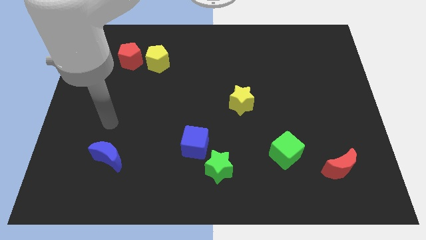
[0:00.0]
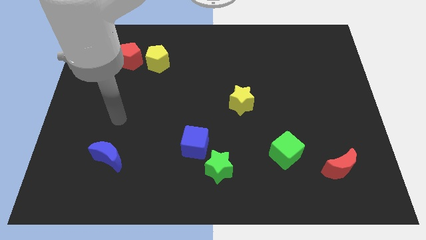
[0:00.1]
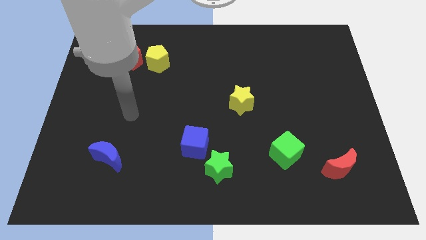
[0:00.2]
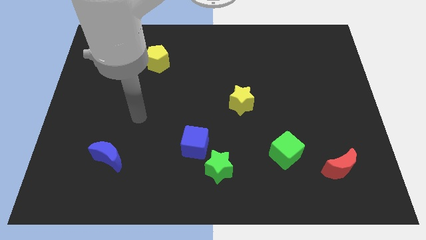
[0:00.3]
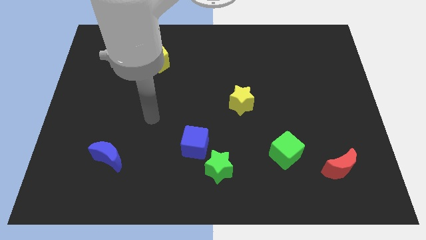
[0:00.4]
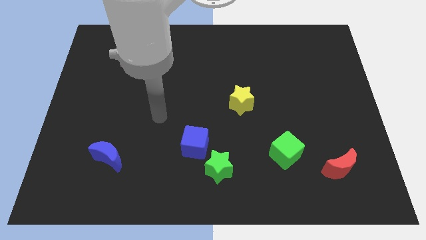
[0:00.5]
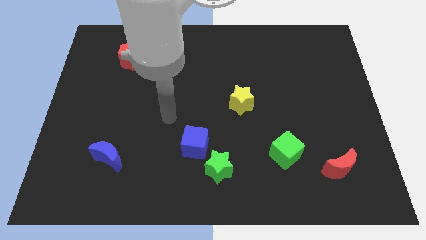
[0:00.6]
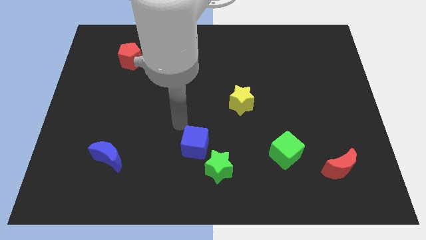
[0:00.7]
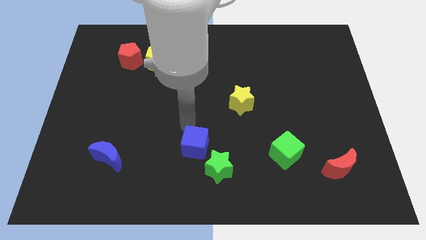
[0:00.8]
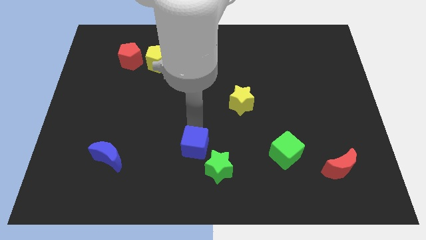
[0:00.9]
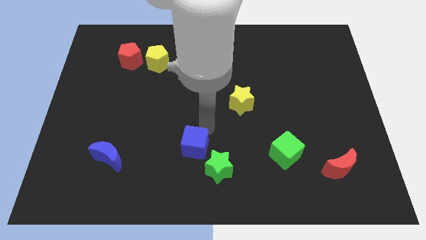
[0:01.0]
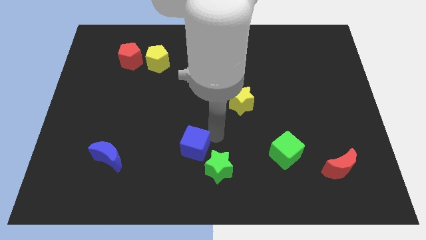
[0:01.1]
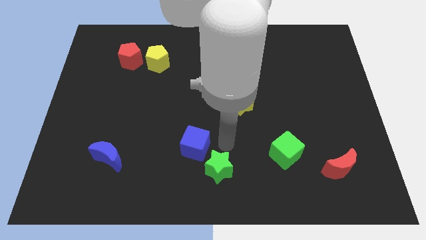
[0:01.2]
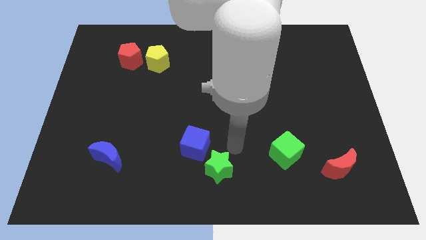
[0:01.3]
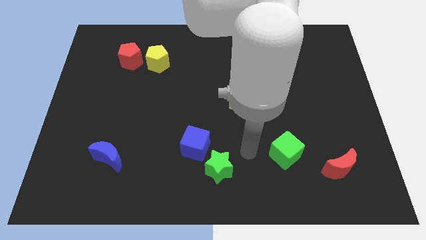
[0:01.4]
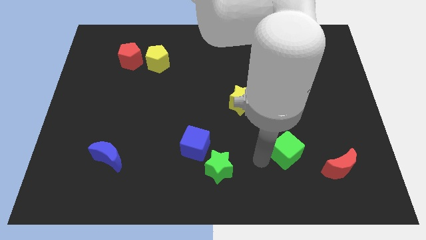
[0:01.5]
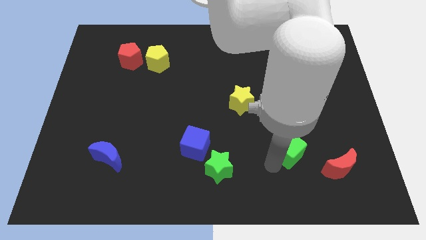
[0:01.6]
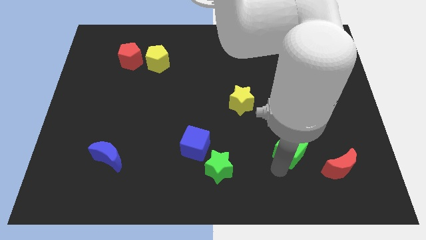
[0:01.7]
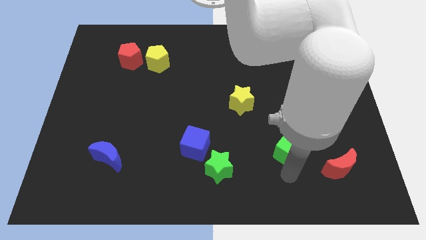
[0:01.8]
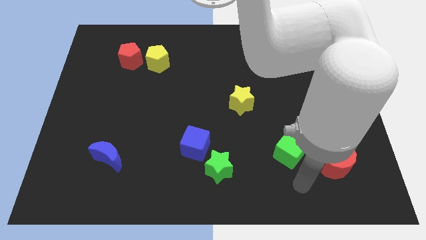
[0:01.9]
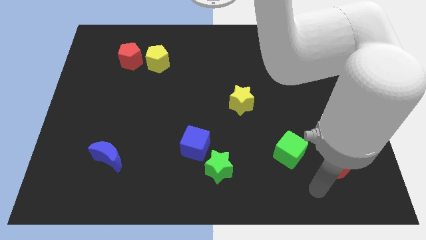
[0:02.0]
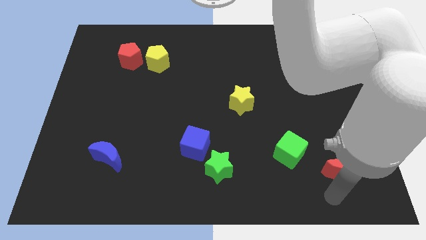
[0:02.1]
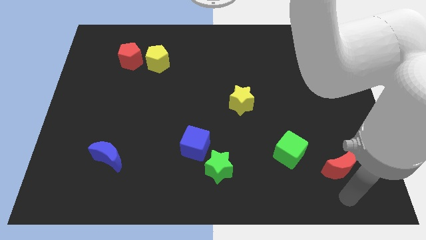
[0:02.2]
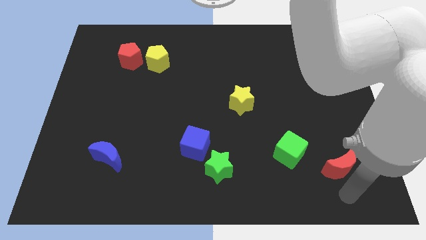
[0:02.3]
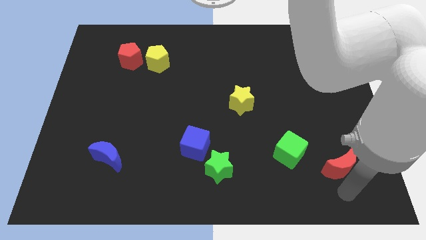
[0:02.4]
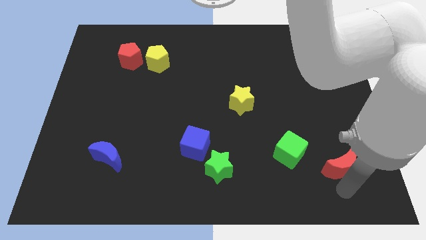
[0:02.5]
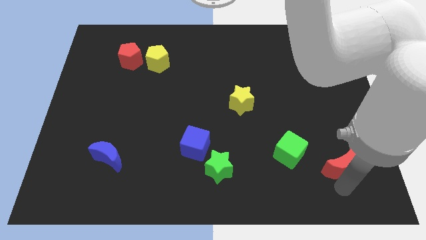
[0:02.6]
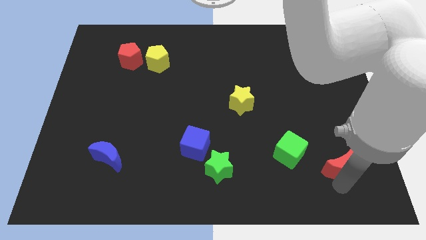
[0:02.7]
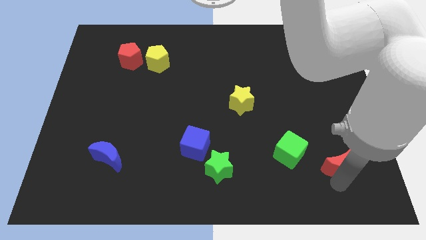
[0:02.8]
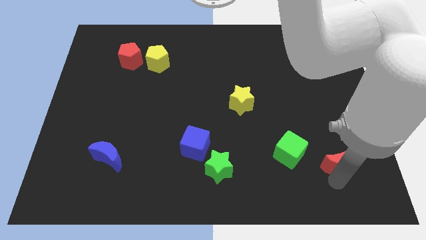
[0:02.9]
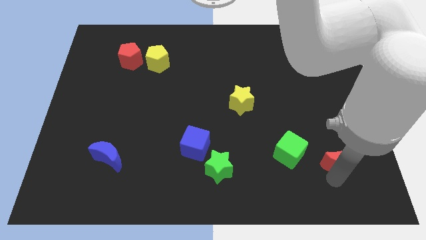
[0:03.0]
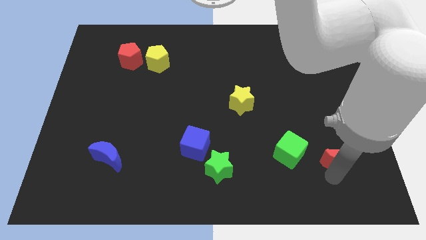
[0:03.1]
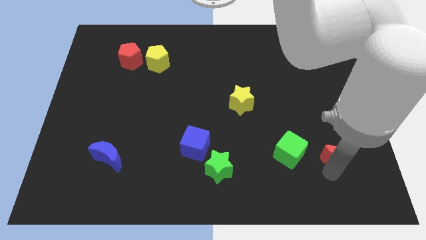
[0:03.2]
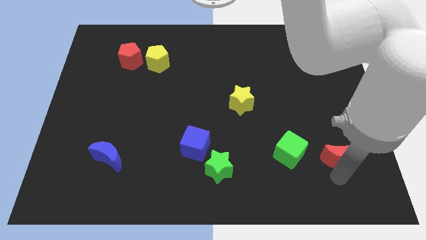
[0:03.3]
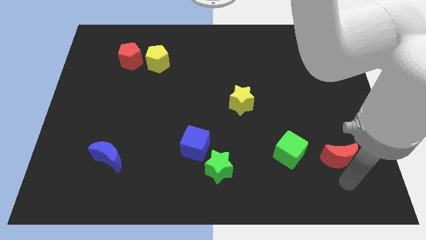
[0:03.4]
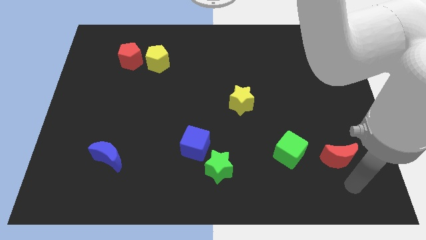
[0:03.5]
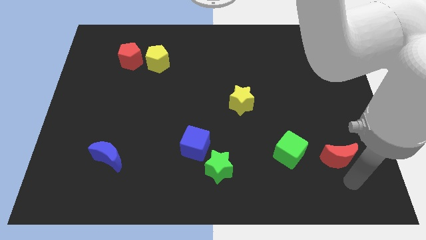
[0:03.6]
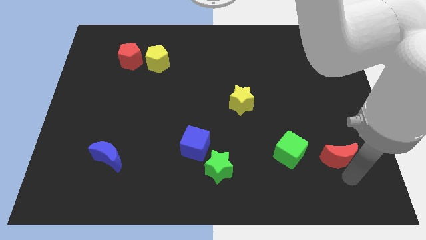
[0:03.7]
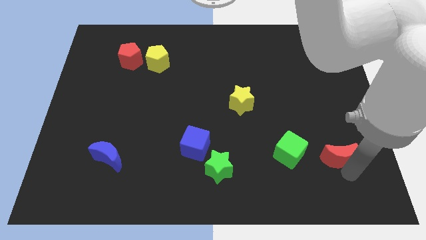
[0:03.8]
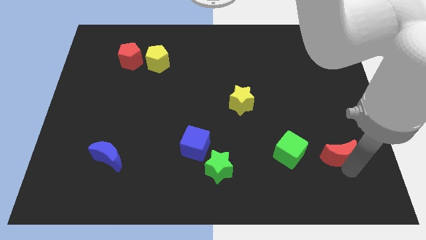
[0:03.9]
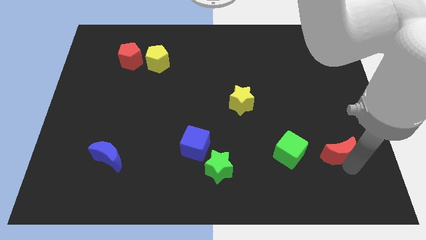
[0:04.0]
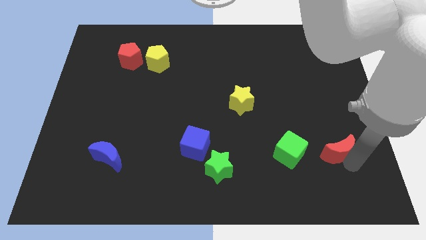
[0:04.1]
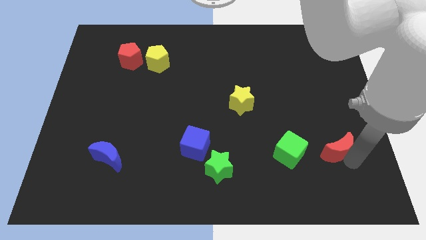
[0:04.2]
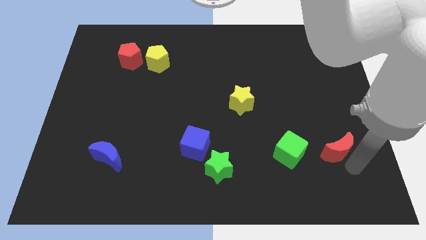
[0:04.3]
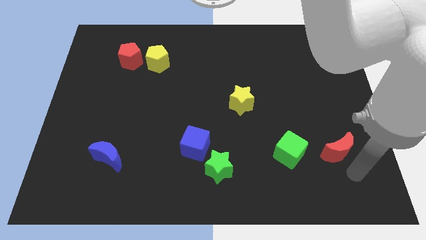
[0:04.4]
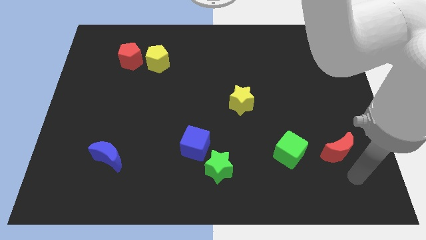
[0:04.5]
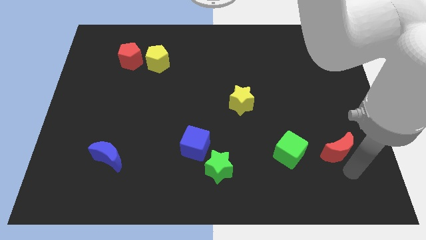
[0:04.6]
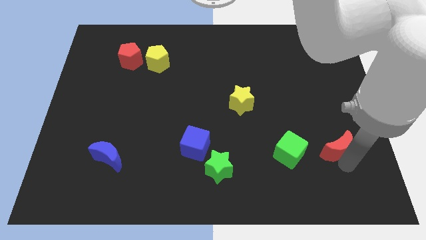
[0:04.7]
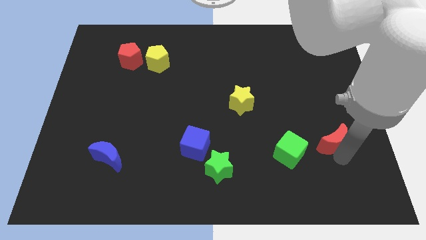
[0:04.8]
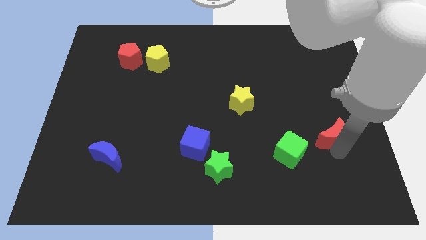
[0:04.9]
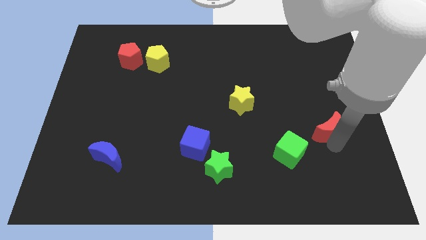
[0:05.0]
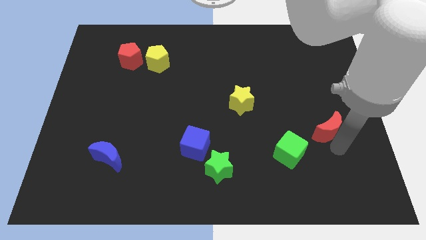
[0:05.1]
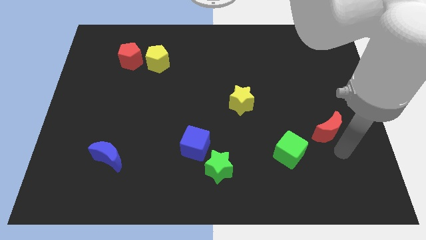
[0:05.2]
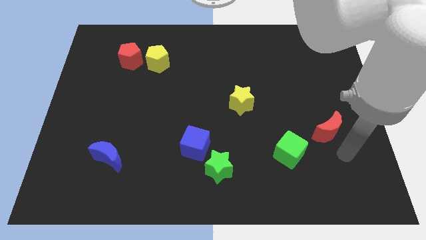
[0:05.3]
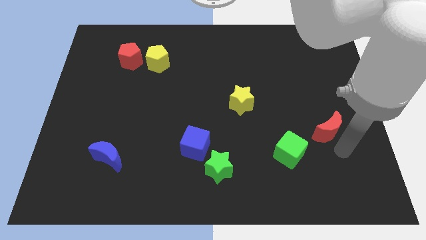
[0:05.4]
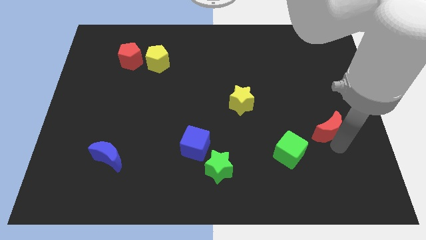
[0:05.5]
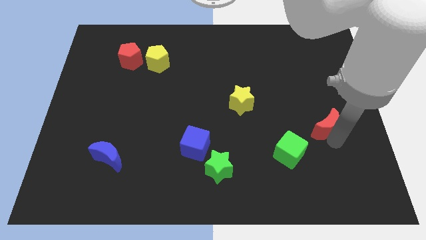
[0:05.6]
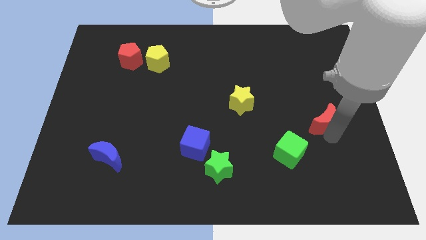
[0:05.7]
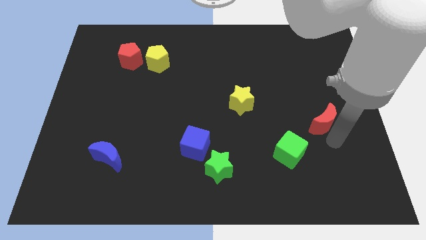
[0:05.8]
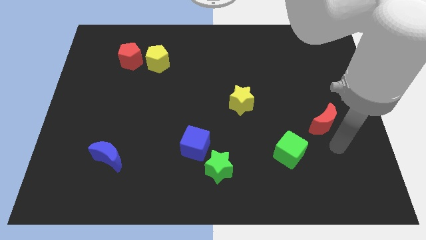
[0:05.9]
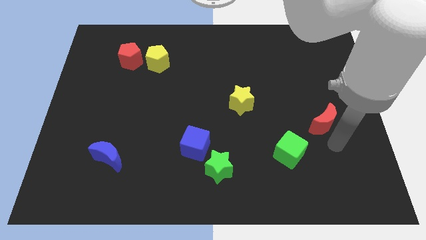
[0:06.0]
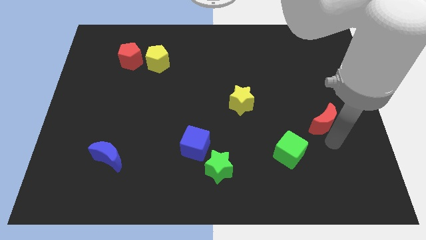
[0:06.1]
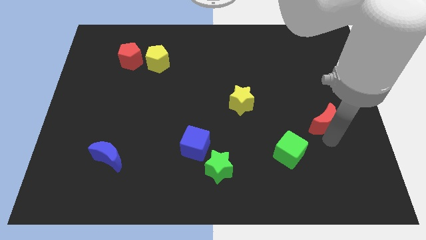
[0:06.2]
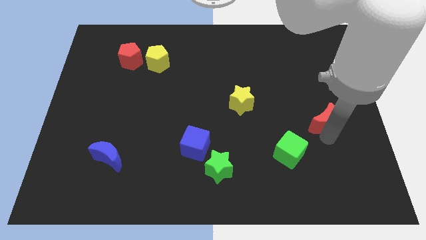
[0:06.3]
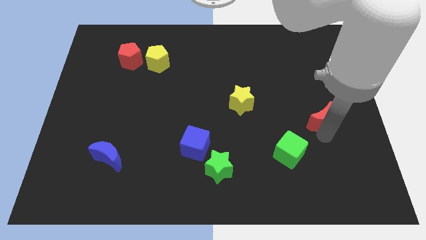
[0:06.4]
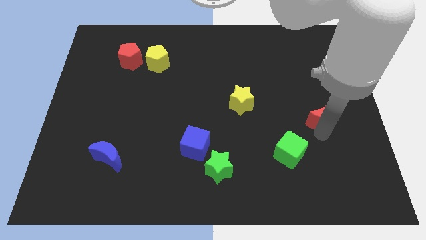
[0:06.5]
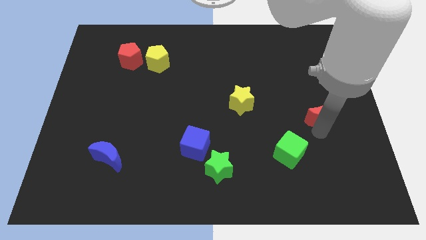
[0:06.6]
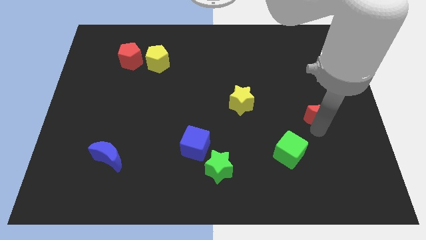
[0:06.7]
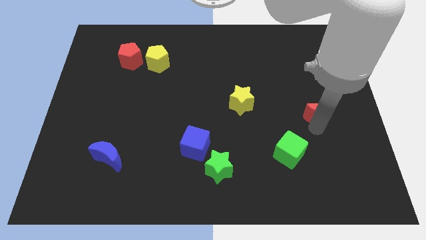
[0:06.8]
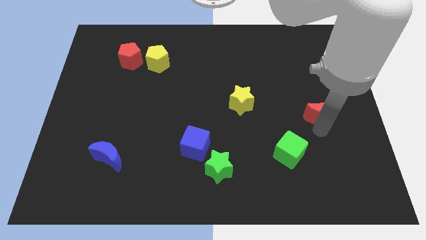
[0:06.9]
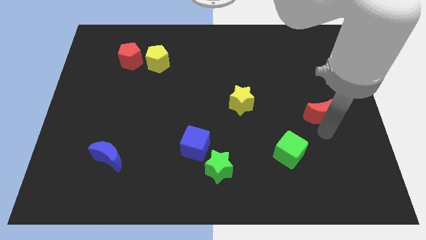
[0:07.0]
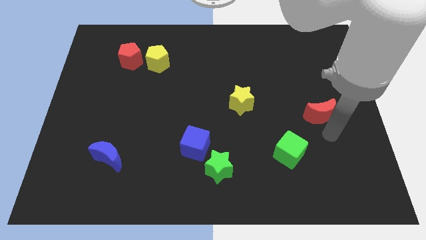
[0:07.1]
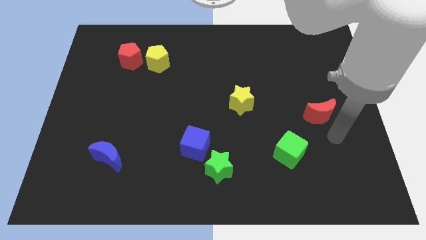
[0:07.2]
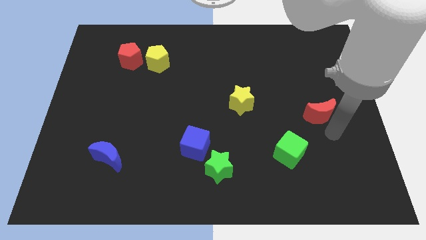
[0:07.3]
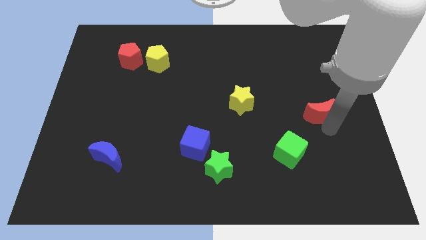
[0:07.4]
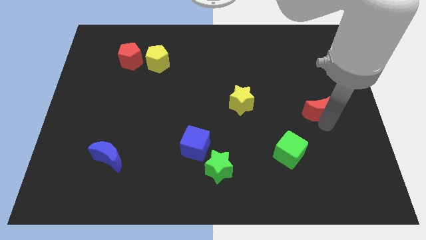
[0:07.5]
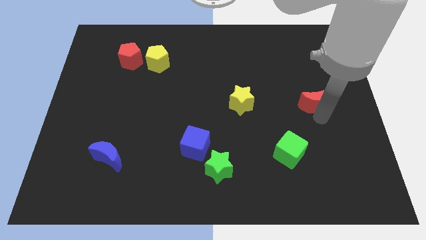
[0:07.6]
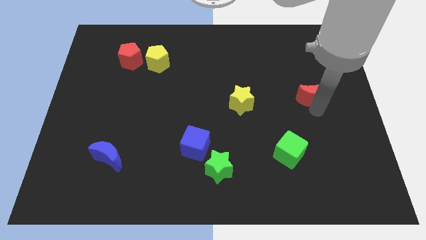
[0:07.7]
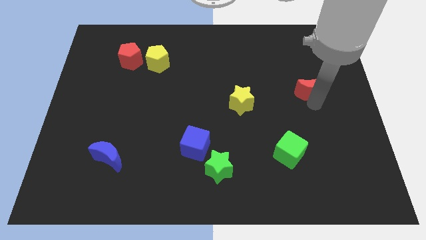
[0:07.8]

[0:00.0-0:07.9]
move the red moon up
